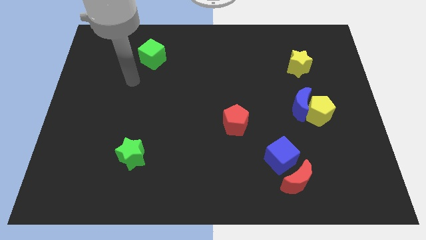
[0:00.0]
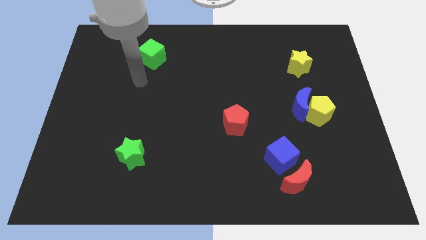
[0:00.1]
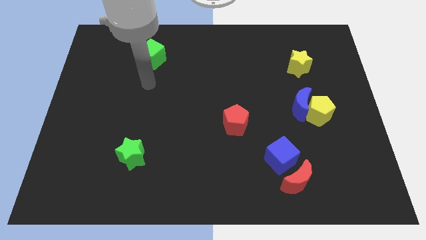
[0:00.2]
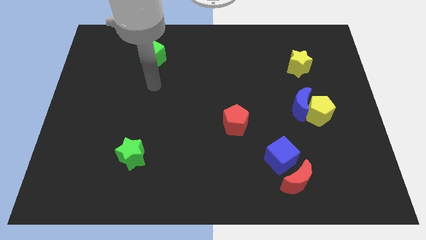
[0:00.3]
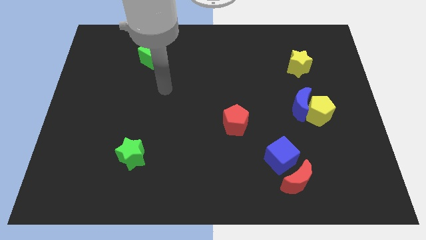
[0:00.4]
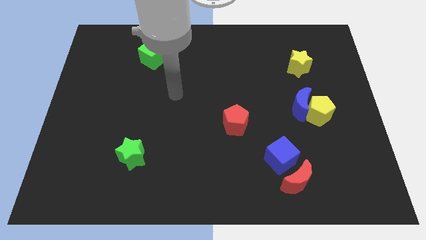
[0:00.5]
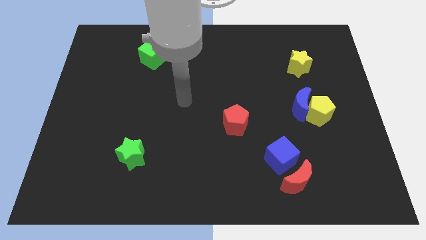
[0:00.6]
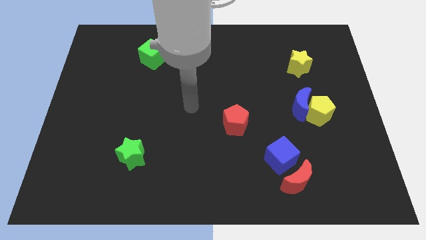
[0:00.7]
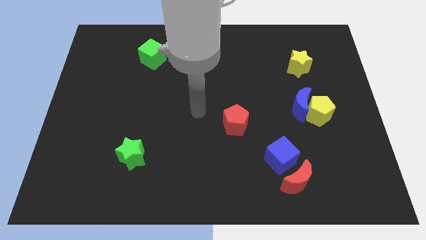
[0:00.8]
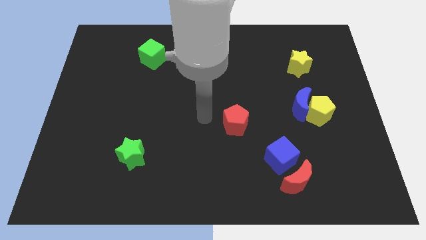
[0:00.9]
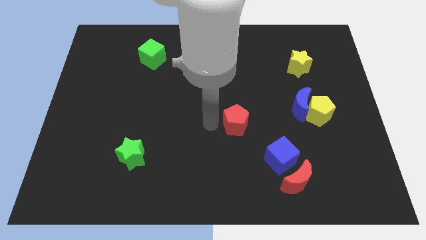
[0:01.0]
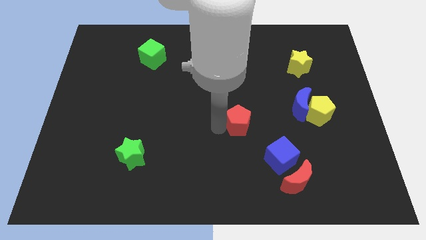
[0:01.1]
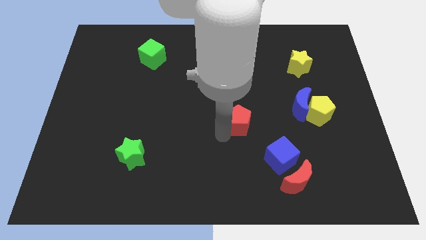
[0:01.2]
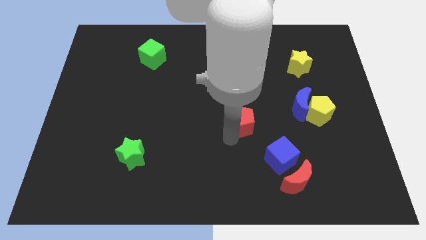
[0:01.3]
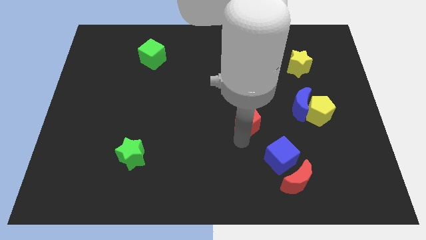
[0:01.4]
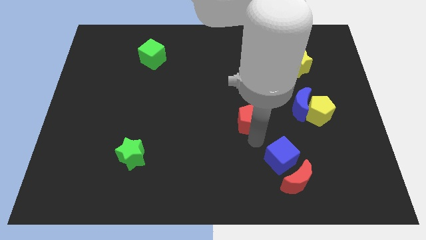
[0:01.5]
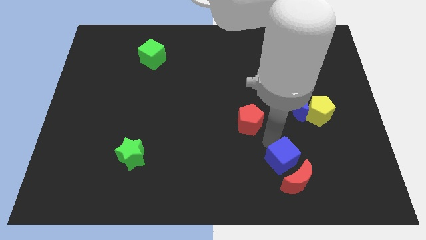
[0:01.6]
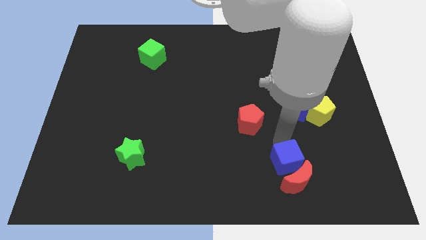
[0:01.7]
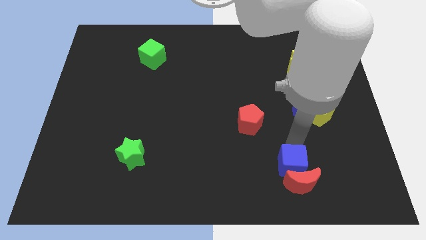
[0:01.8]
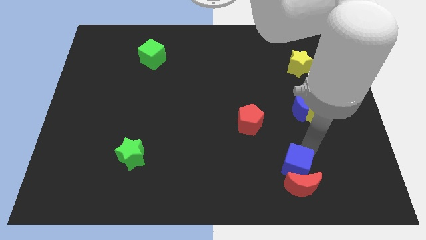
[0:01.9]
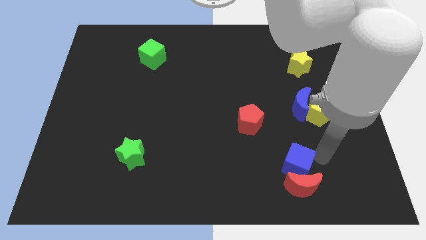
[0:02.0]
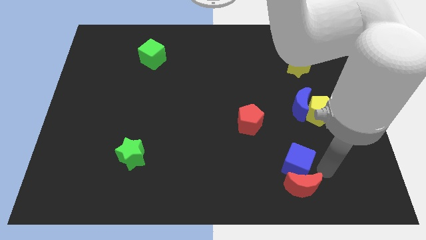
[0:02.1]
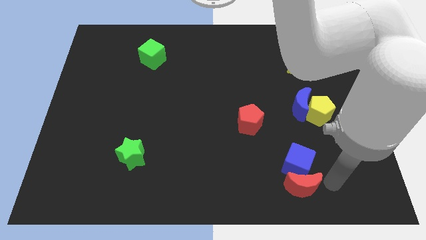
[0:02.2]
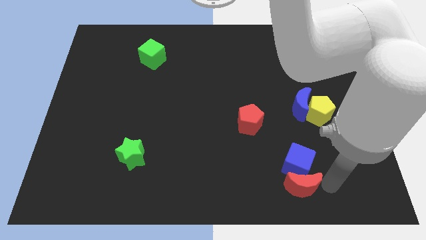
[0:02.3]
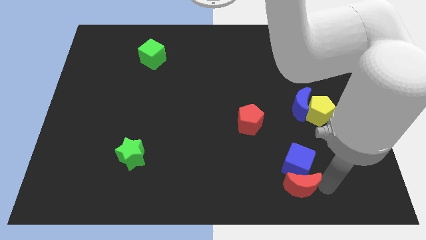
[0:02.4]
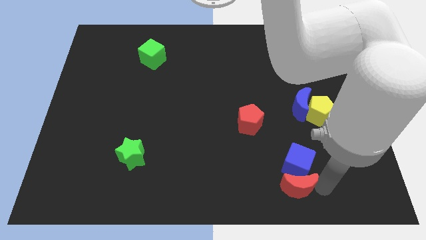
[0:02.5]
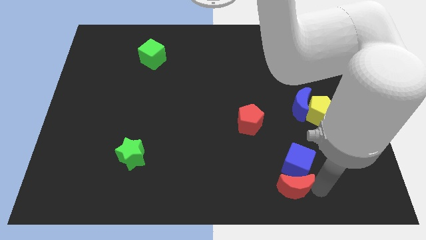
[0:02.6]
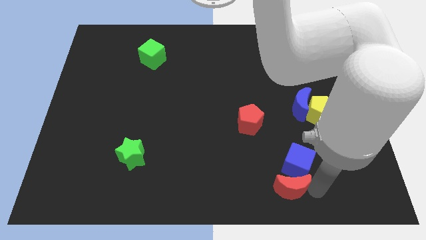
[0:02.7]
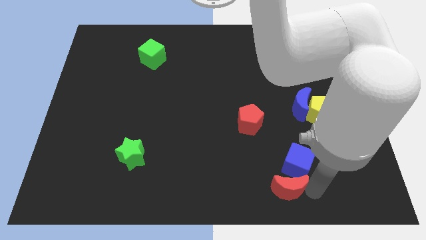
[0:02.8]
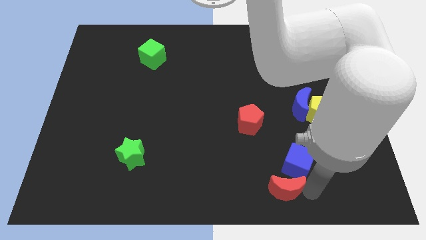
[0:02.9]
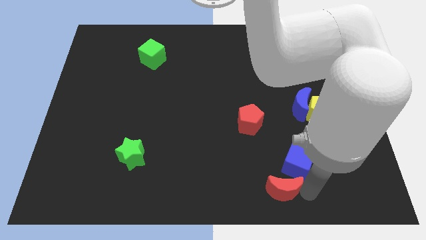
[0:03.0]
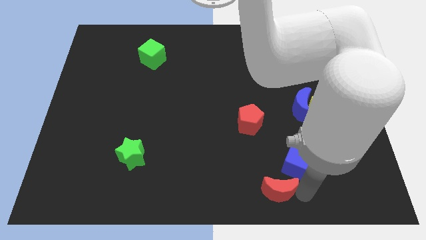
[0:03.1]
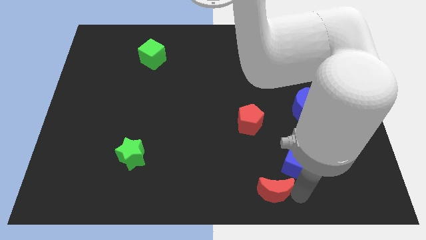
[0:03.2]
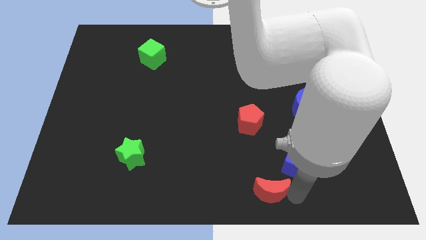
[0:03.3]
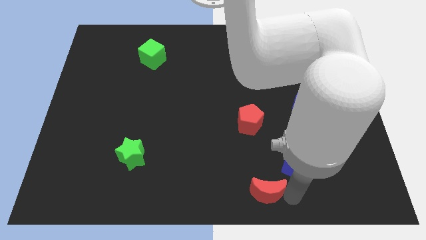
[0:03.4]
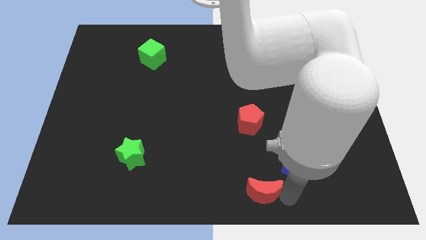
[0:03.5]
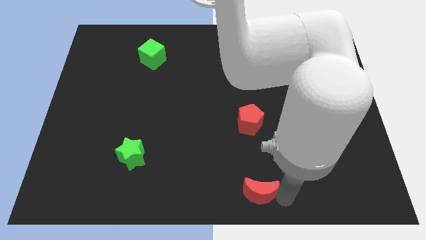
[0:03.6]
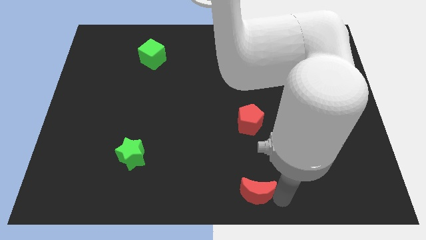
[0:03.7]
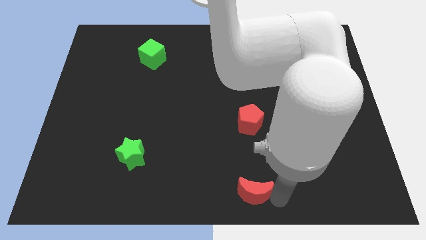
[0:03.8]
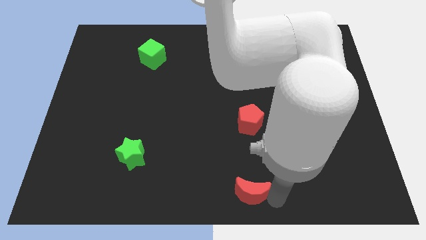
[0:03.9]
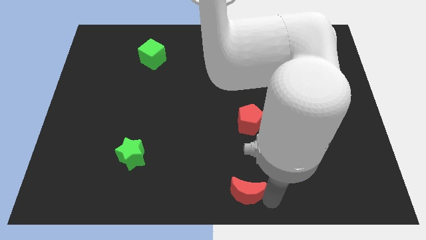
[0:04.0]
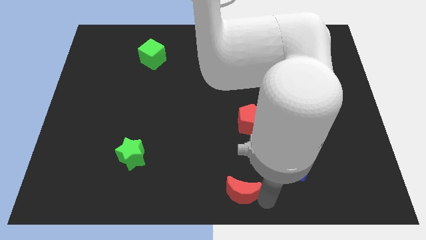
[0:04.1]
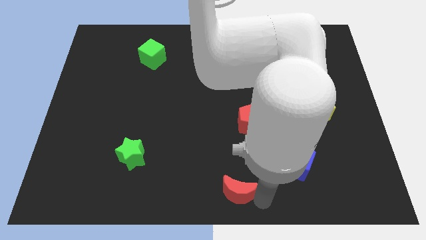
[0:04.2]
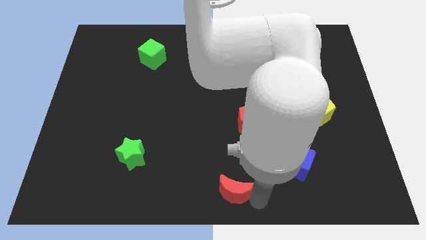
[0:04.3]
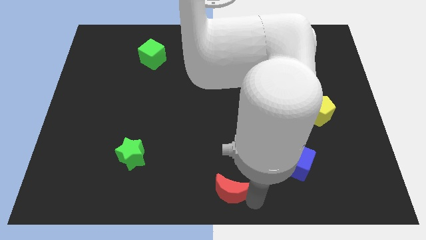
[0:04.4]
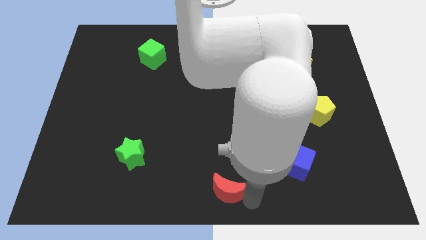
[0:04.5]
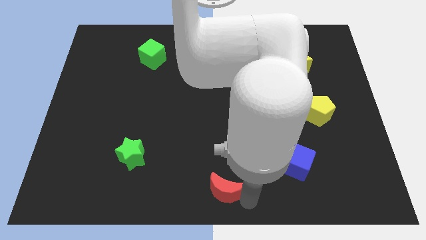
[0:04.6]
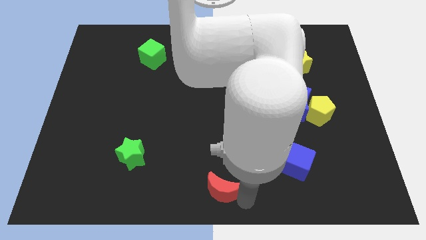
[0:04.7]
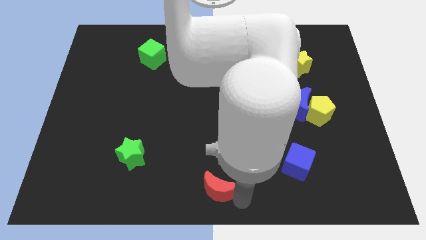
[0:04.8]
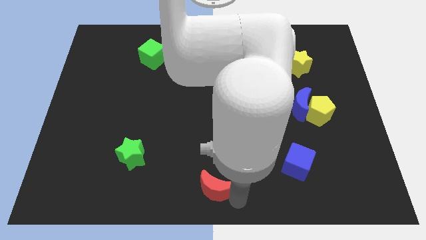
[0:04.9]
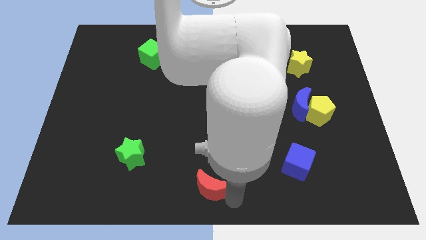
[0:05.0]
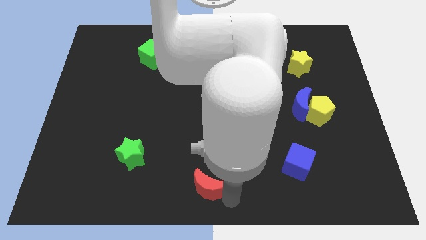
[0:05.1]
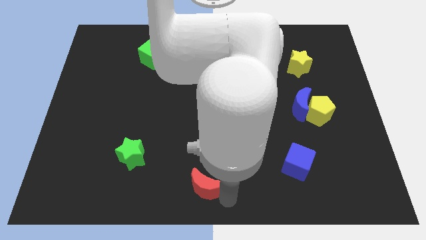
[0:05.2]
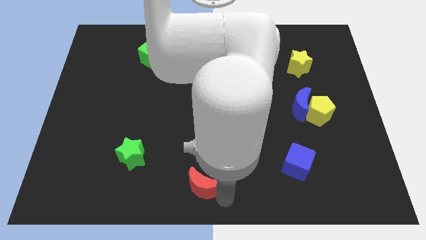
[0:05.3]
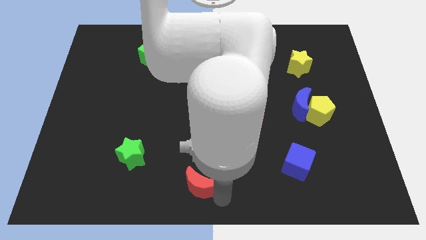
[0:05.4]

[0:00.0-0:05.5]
slide the red moon to the left

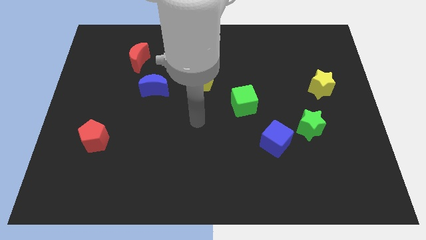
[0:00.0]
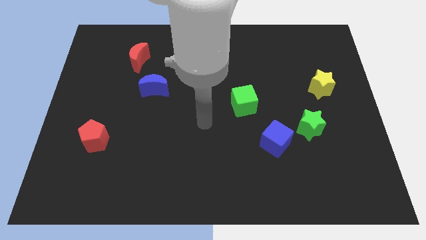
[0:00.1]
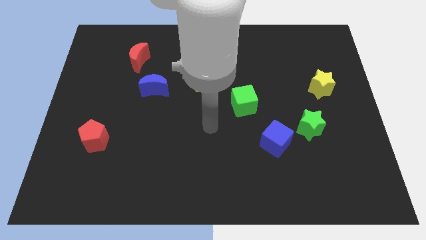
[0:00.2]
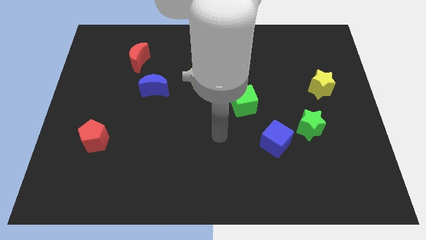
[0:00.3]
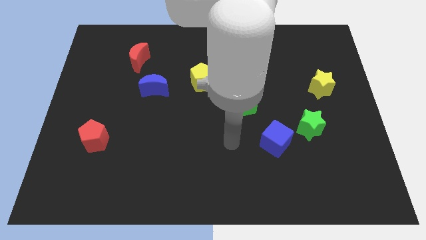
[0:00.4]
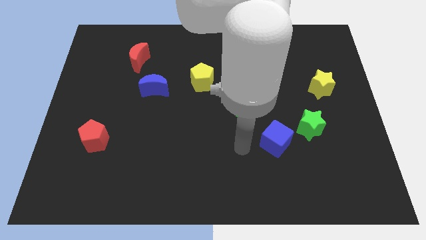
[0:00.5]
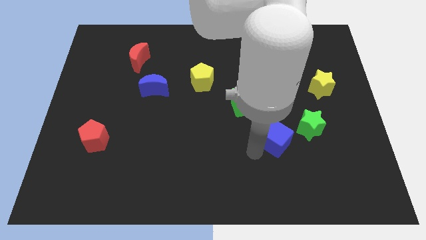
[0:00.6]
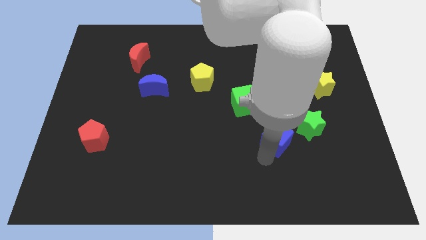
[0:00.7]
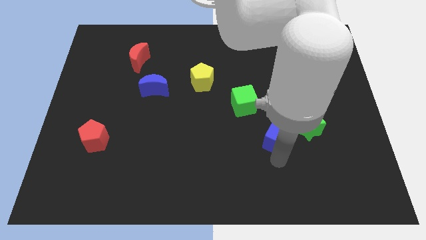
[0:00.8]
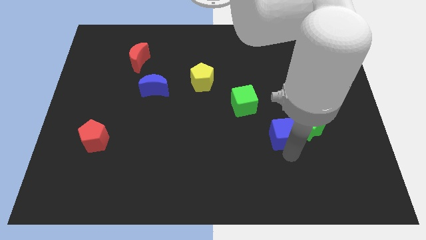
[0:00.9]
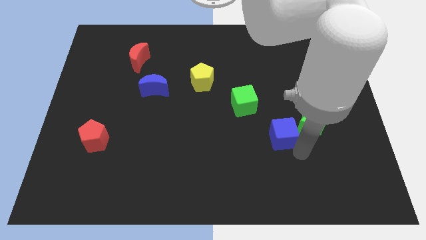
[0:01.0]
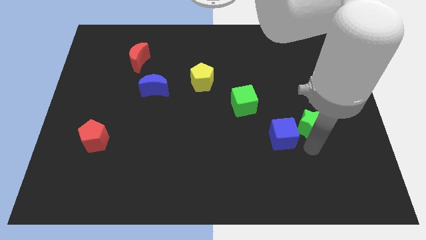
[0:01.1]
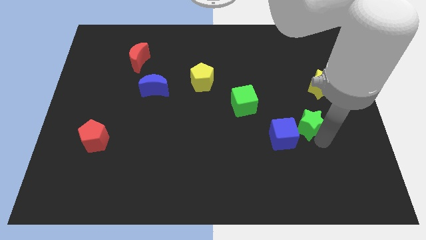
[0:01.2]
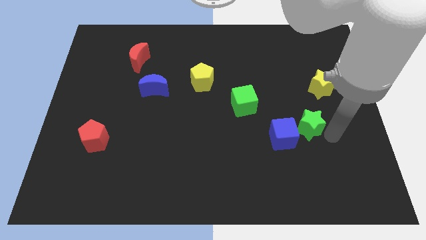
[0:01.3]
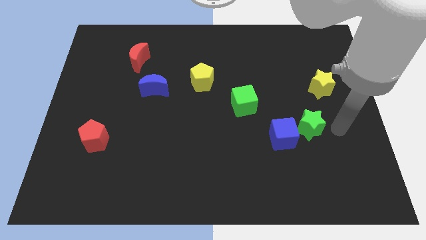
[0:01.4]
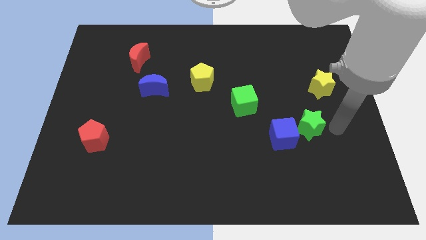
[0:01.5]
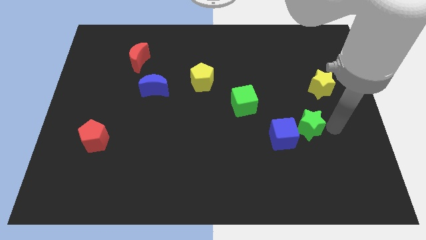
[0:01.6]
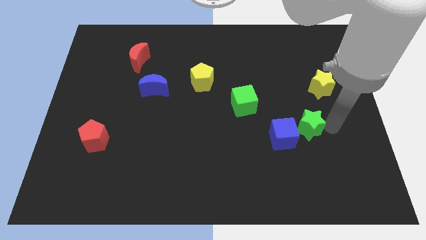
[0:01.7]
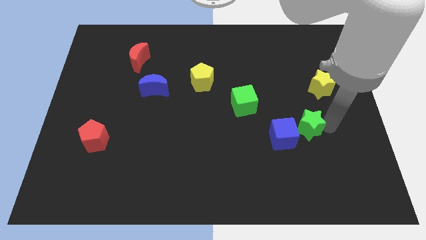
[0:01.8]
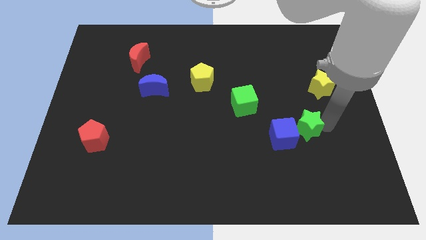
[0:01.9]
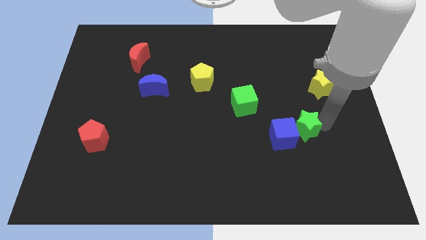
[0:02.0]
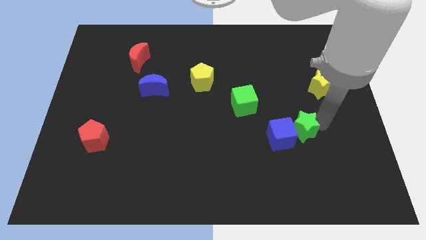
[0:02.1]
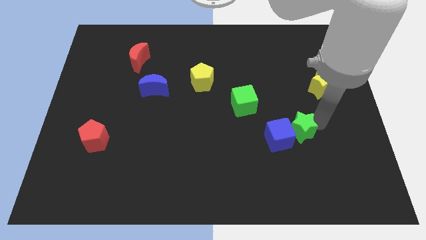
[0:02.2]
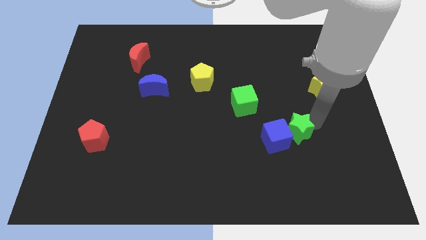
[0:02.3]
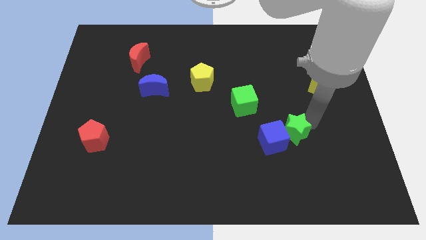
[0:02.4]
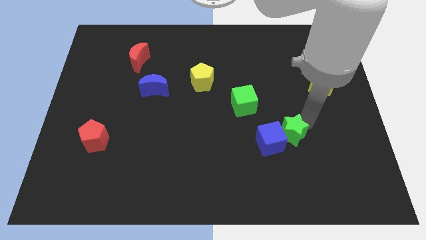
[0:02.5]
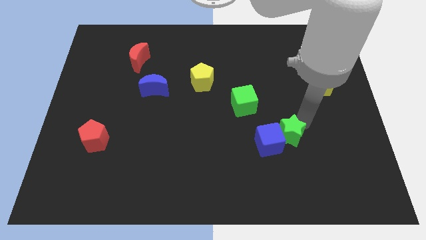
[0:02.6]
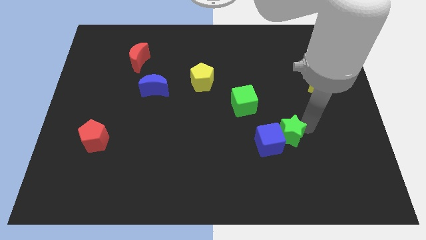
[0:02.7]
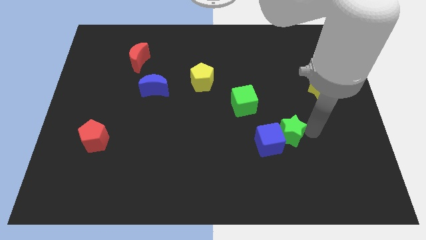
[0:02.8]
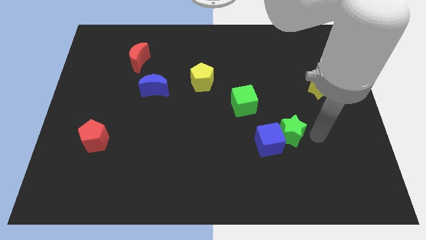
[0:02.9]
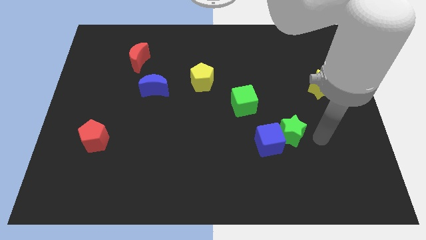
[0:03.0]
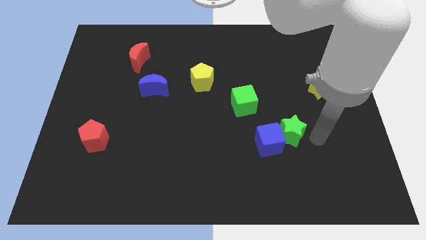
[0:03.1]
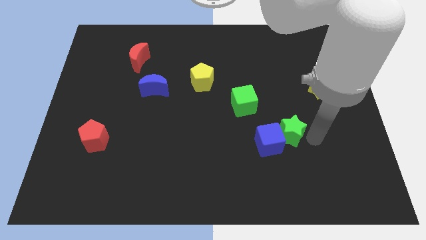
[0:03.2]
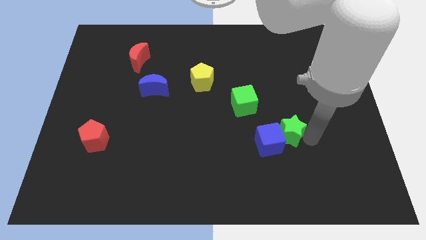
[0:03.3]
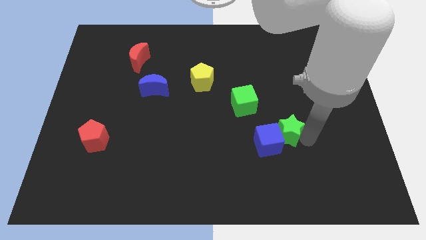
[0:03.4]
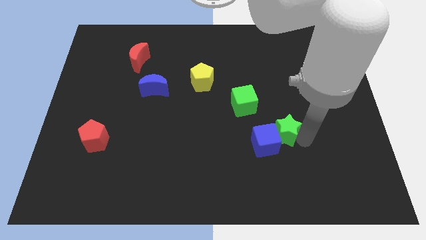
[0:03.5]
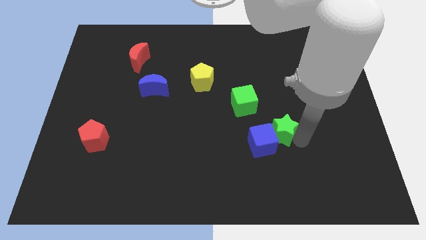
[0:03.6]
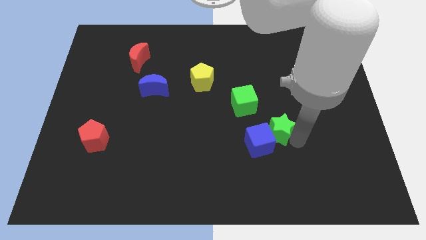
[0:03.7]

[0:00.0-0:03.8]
slide the green star left a bit
